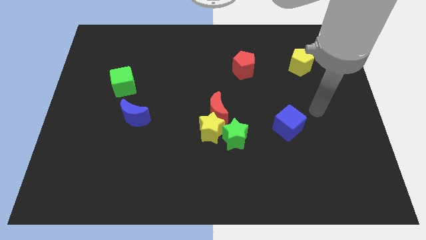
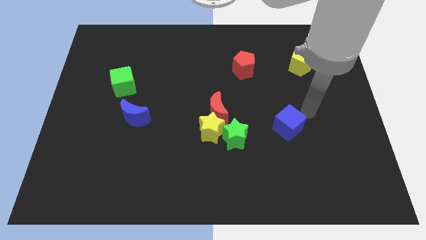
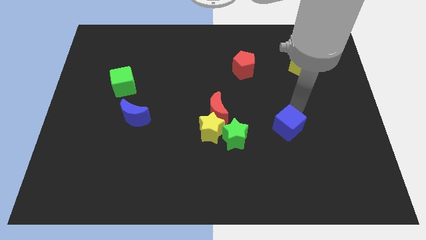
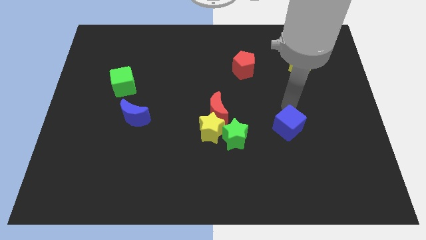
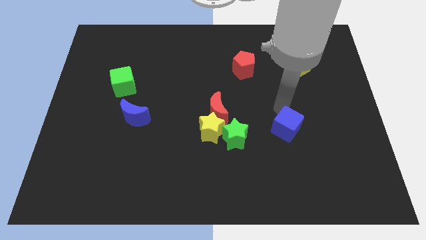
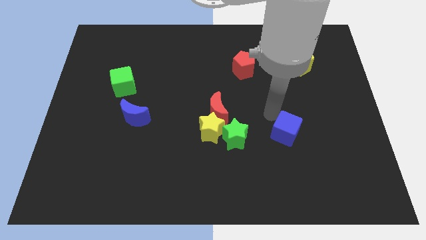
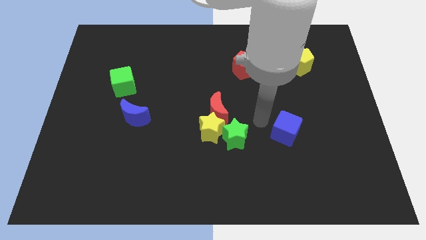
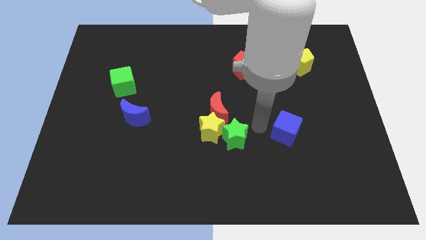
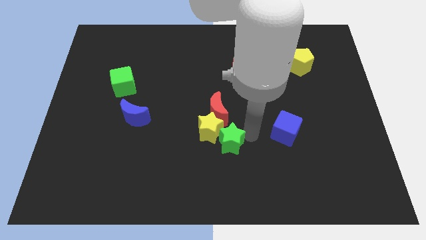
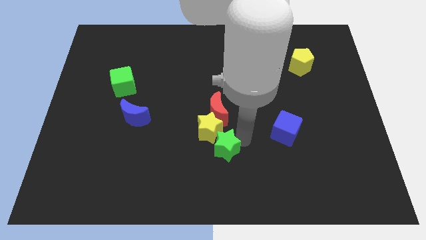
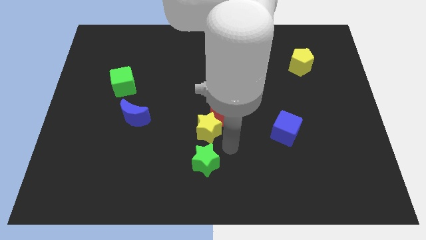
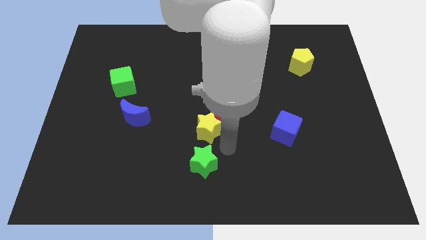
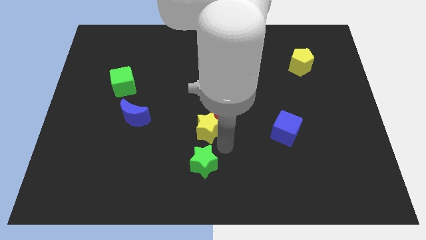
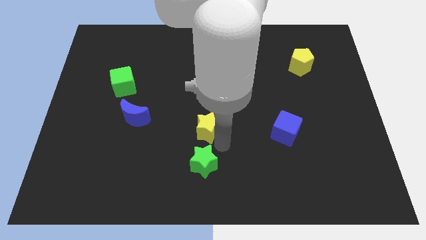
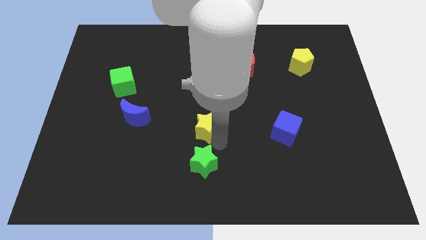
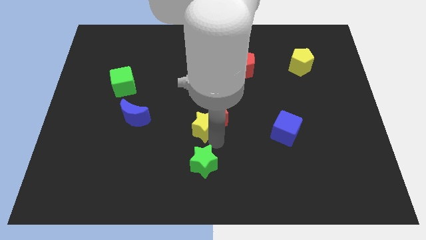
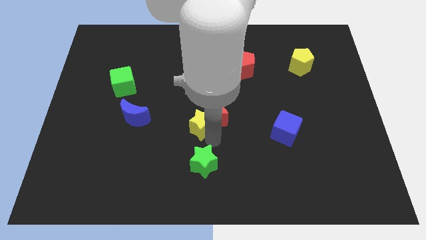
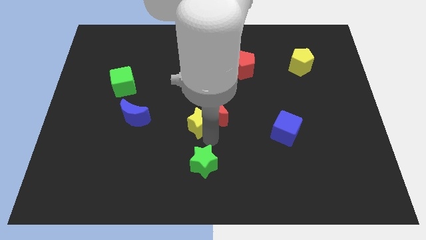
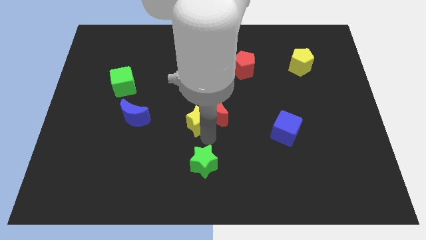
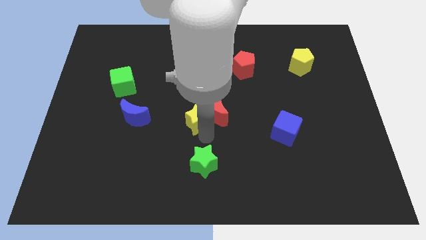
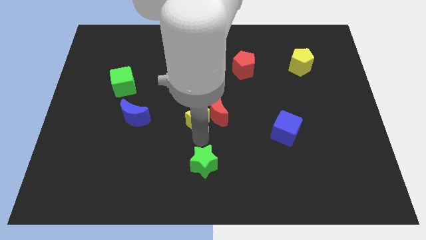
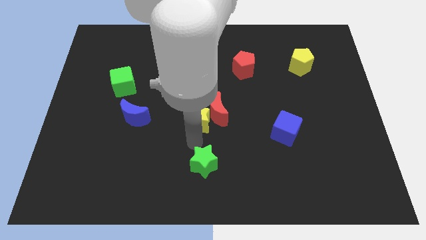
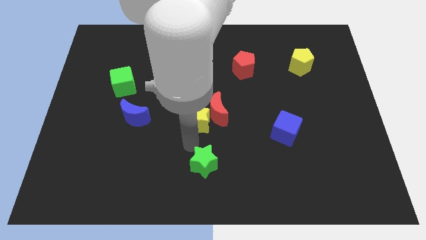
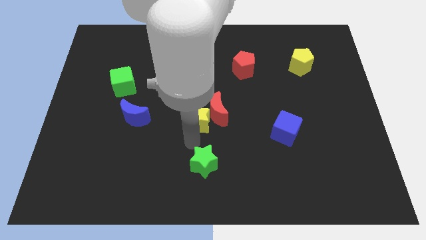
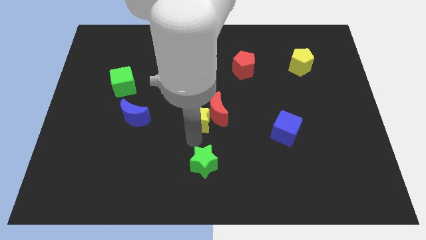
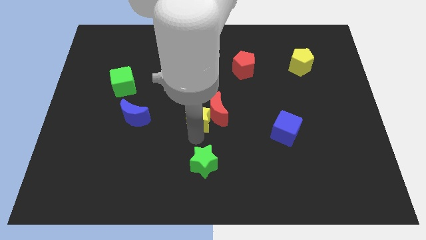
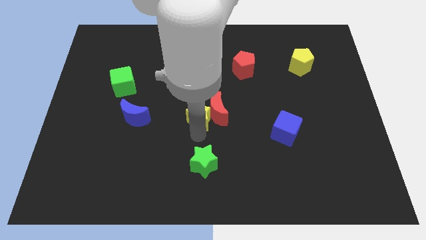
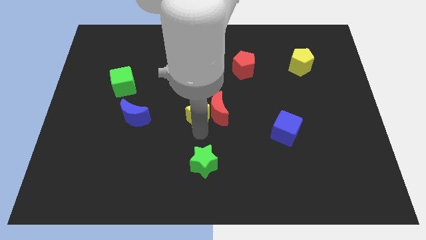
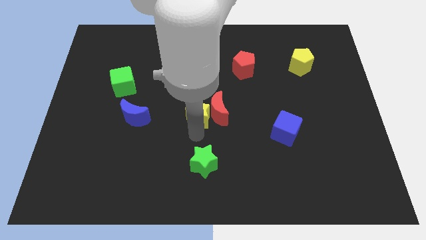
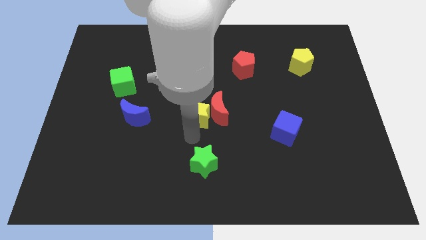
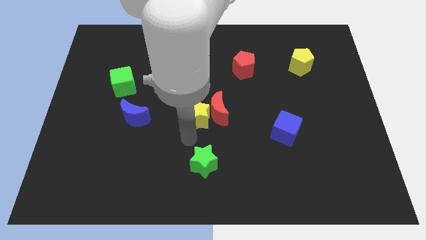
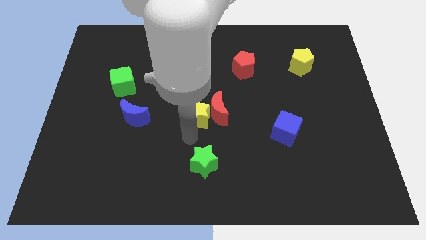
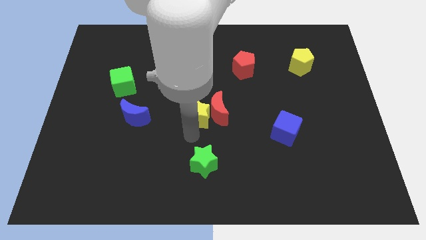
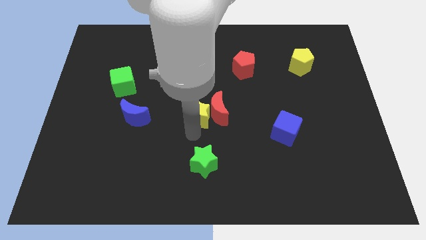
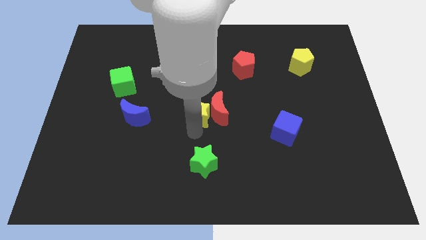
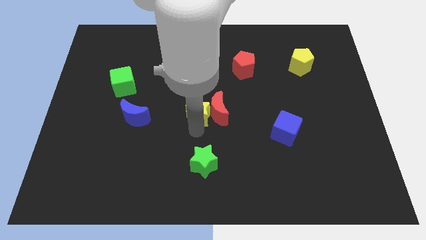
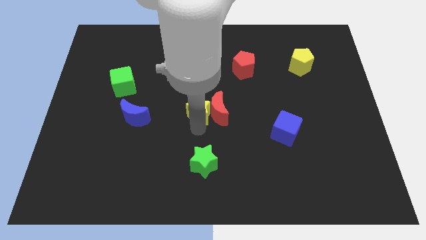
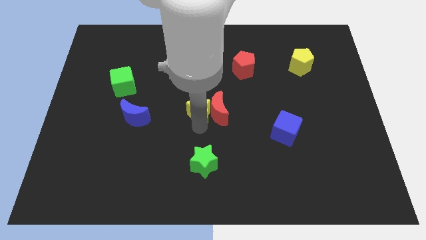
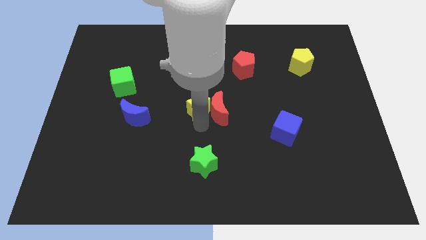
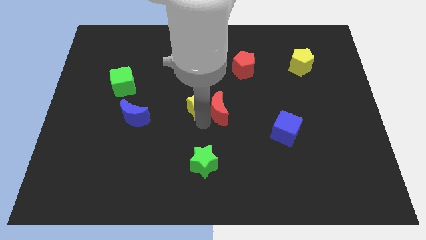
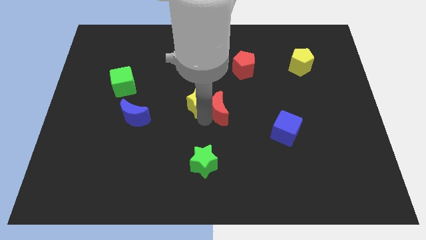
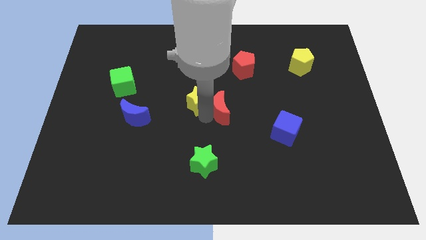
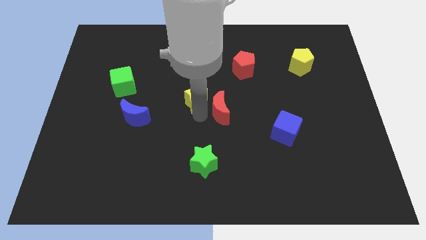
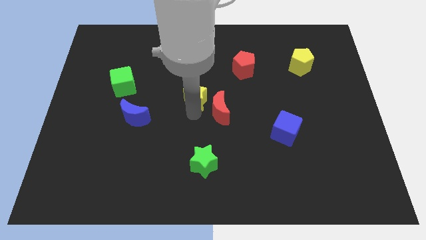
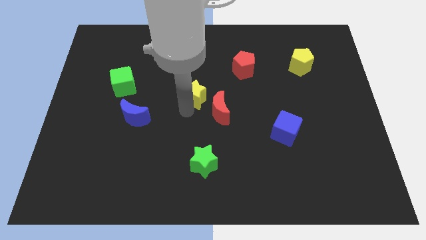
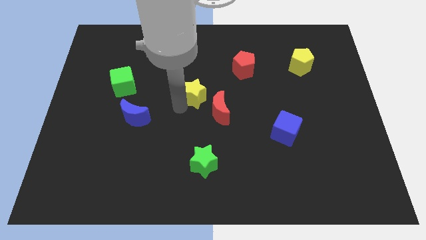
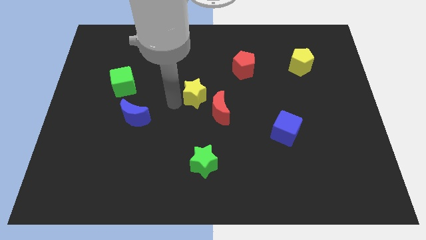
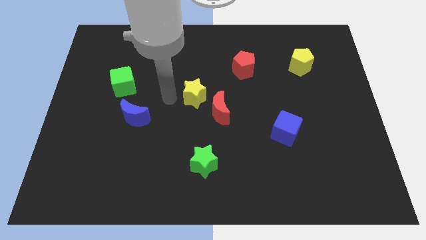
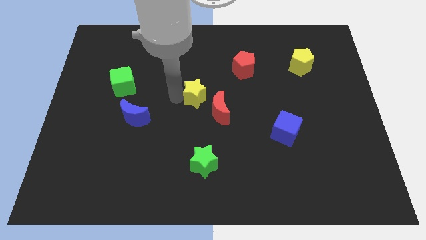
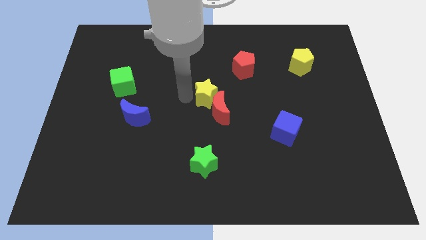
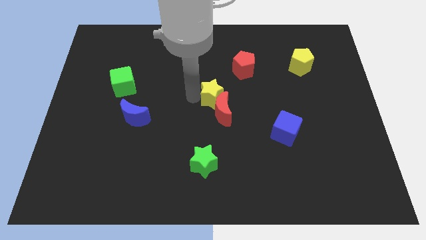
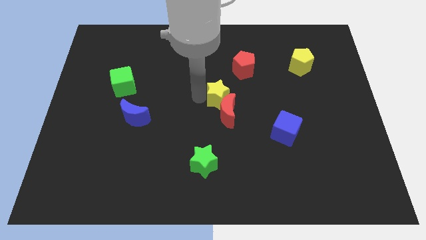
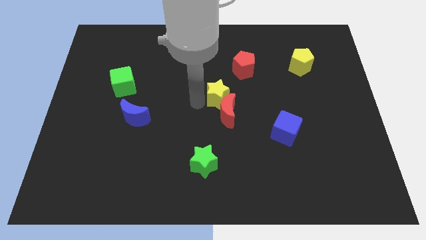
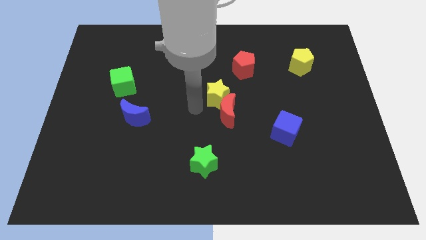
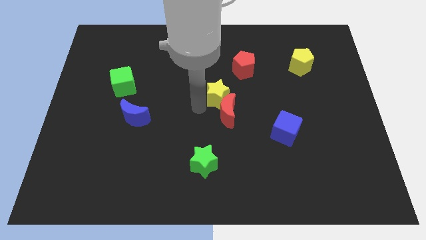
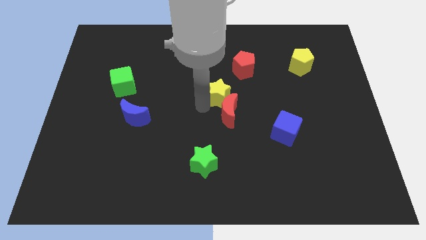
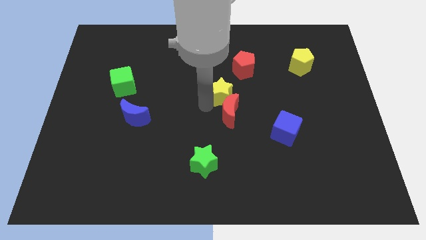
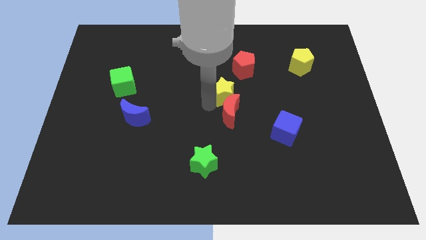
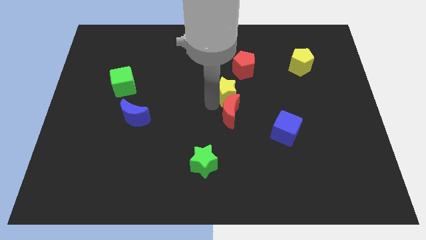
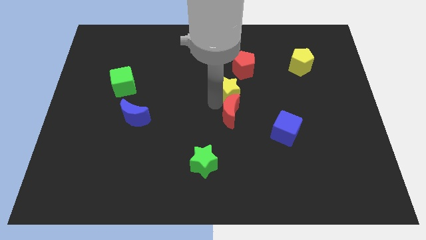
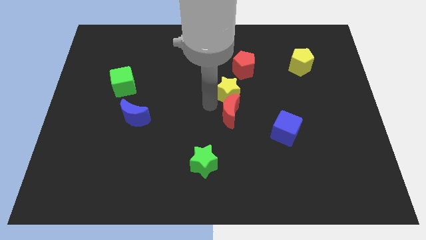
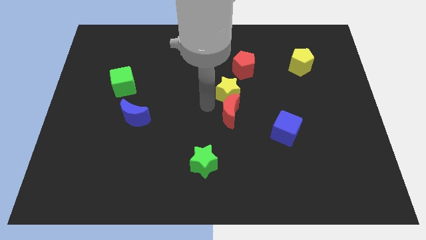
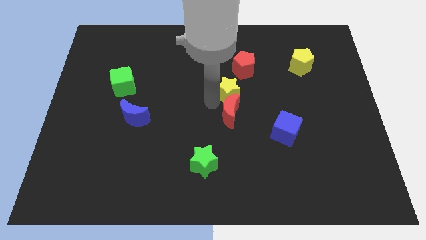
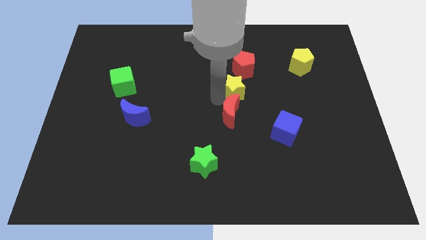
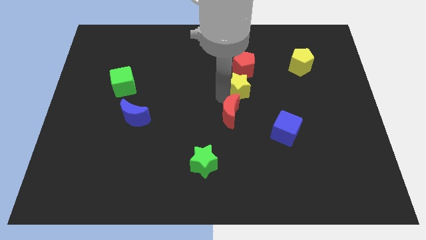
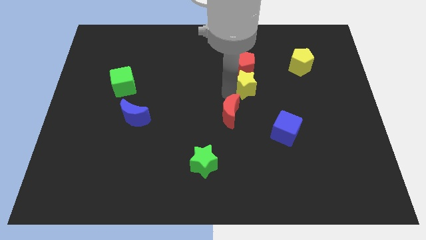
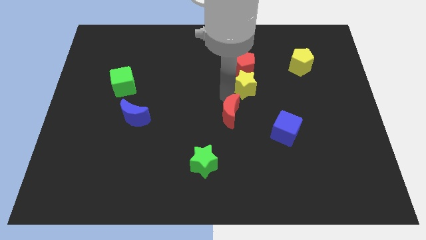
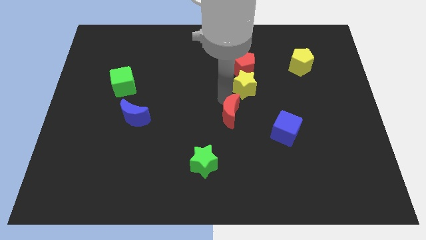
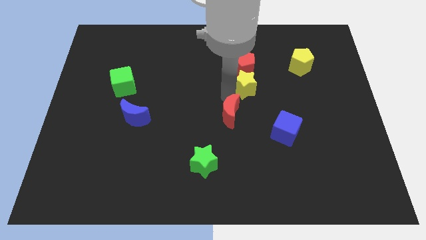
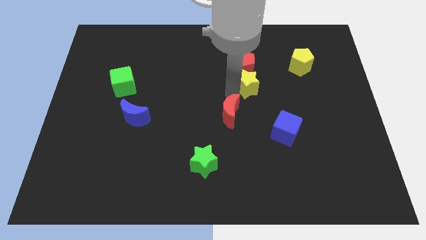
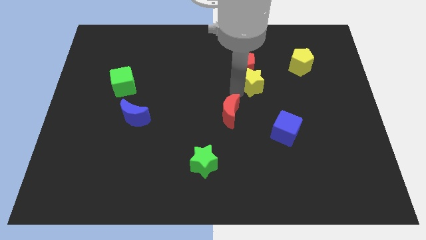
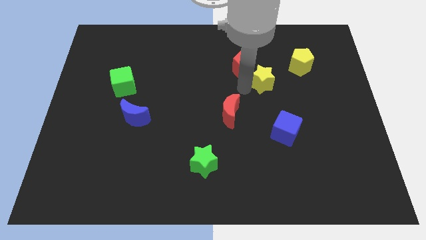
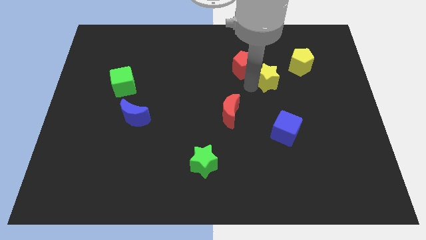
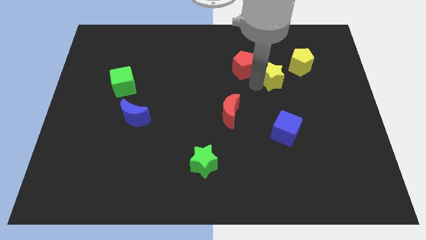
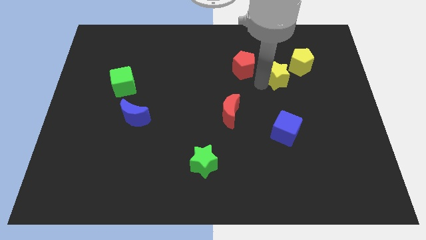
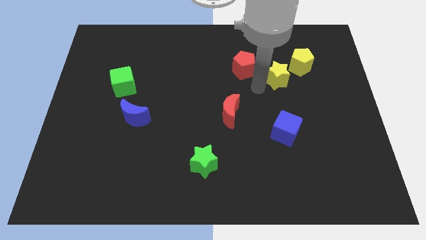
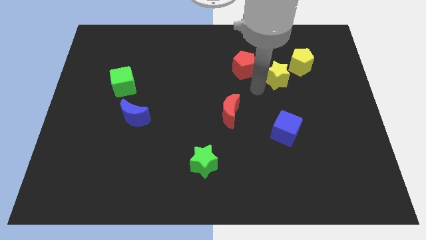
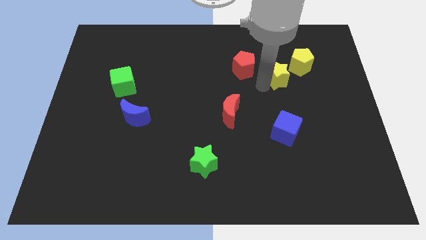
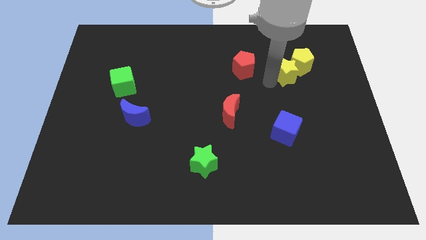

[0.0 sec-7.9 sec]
move the yellow star towards the yellow pentagon

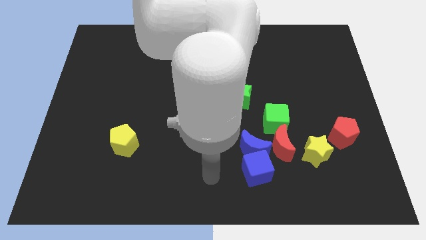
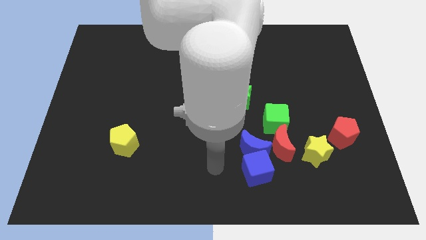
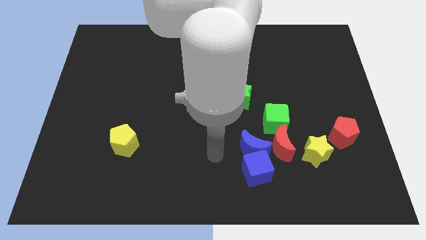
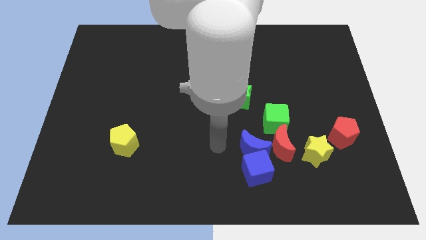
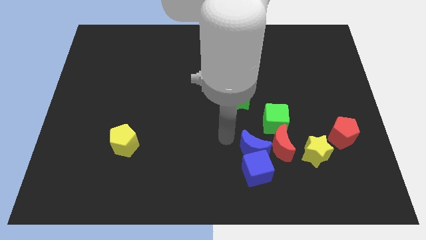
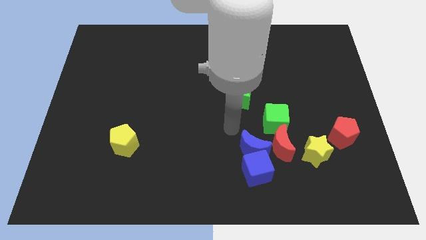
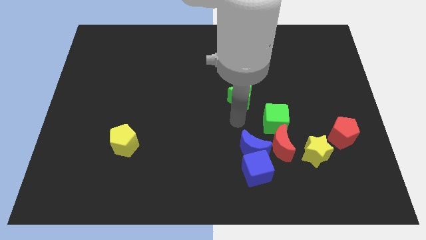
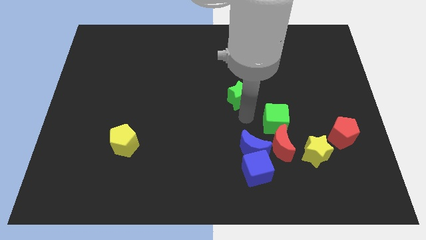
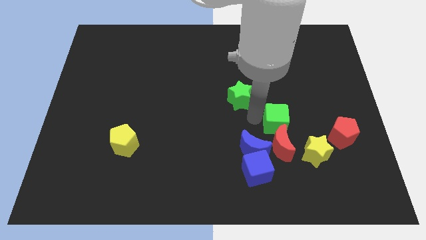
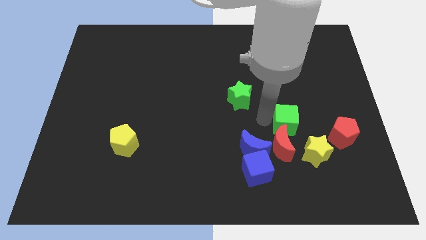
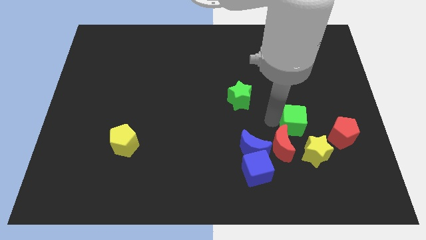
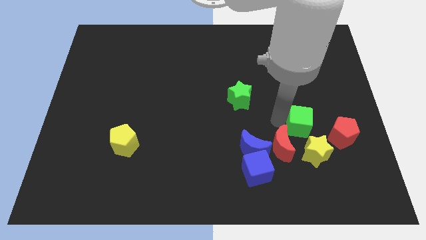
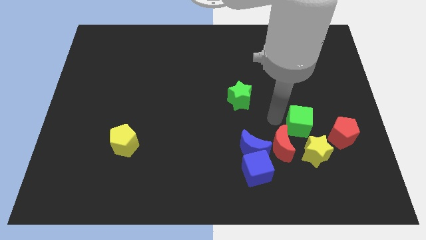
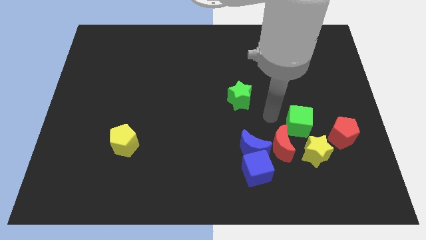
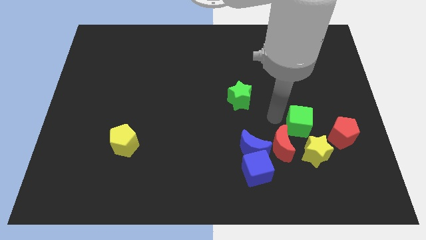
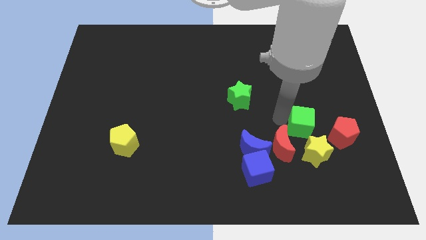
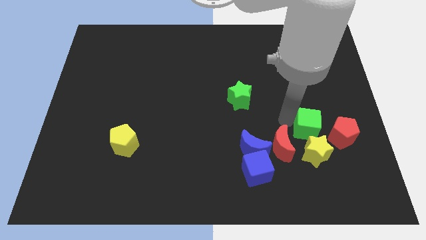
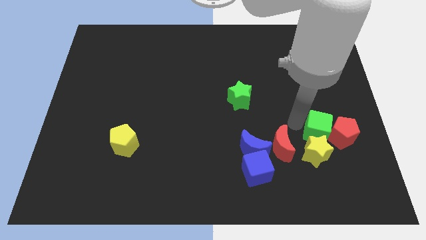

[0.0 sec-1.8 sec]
slide the green cube to the red pentagon
